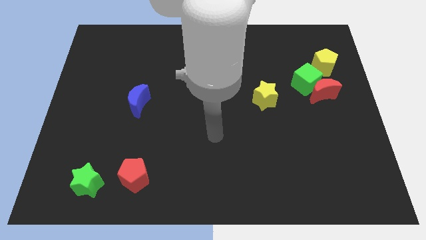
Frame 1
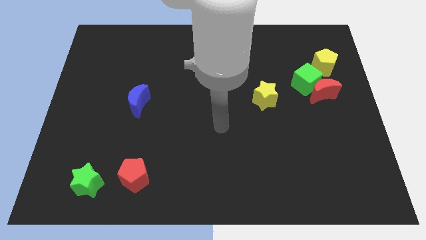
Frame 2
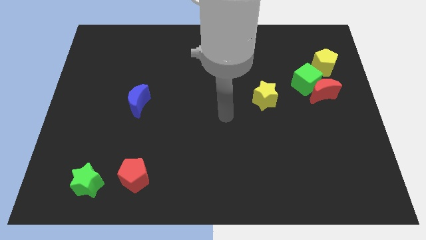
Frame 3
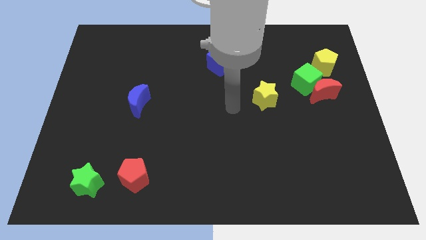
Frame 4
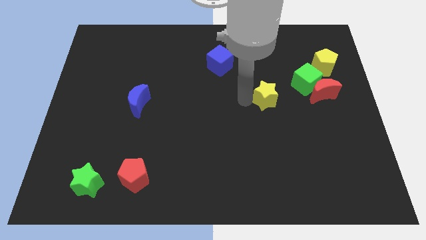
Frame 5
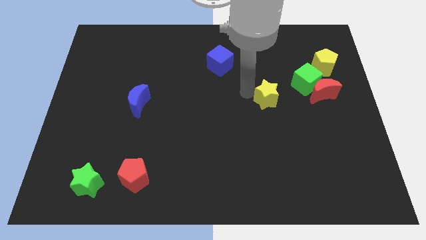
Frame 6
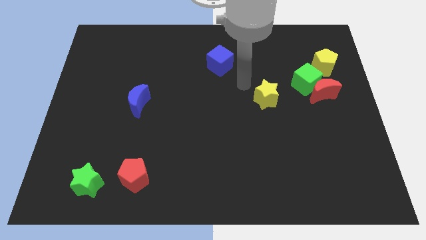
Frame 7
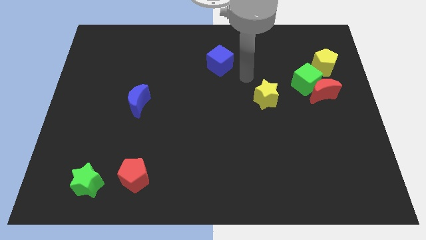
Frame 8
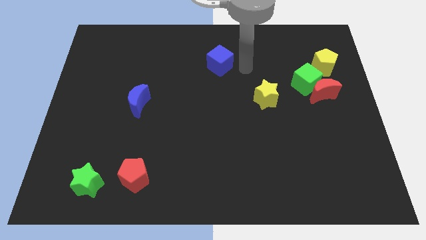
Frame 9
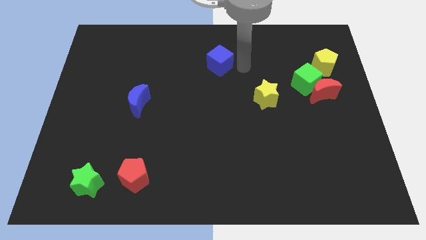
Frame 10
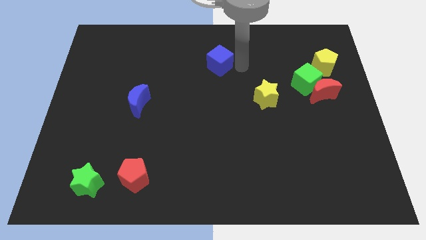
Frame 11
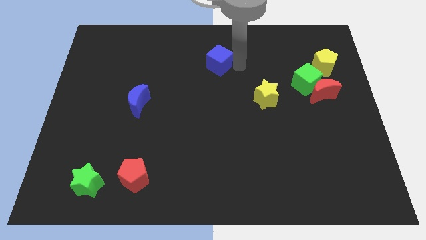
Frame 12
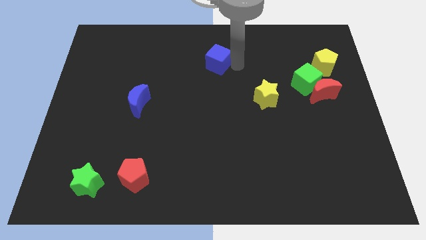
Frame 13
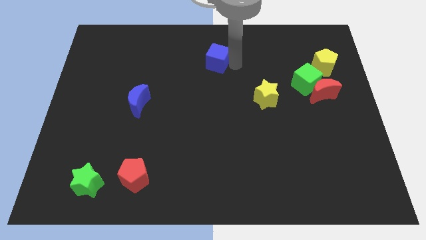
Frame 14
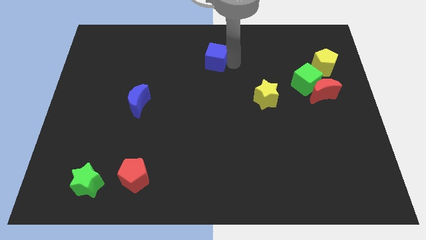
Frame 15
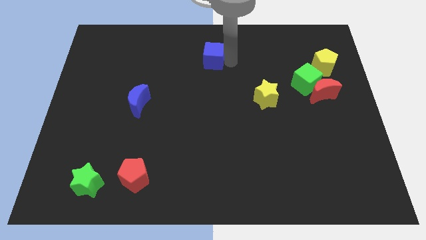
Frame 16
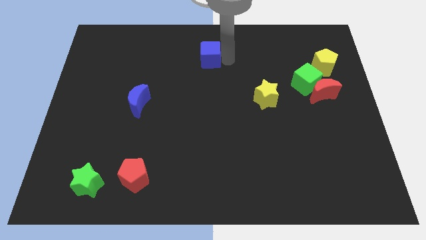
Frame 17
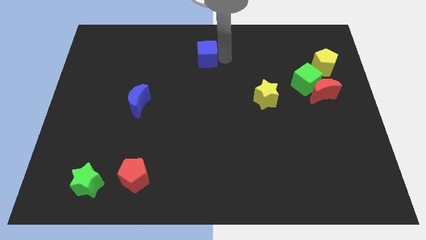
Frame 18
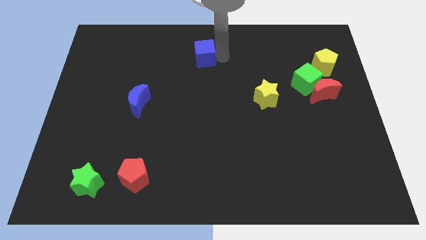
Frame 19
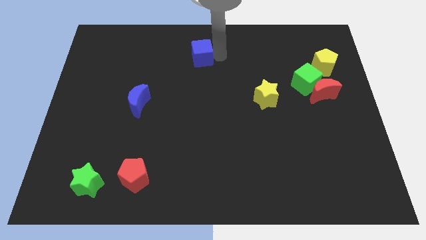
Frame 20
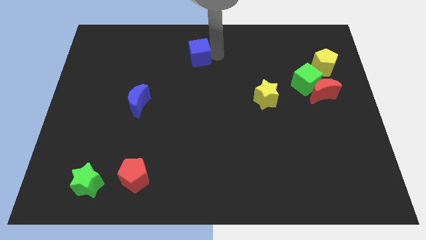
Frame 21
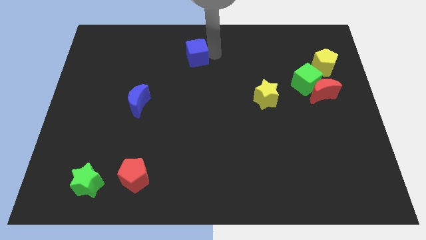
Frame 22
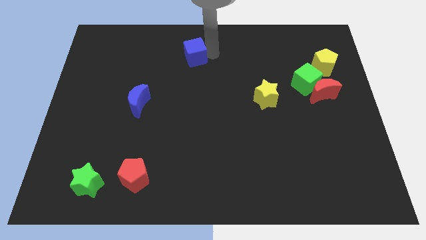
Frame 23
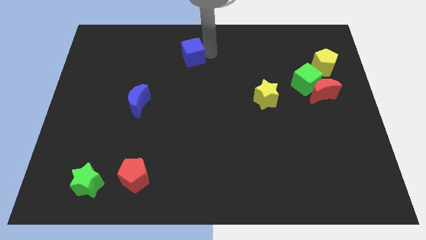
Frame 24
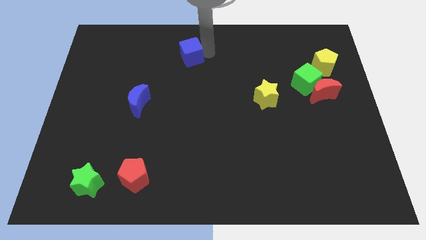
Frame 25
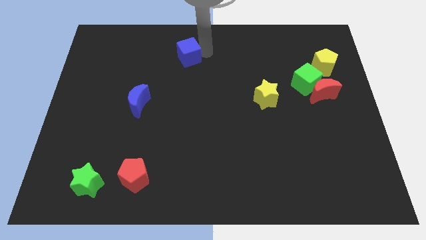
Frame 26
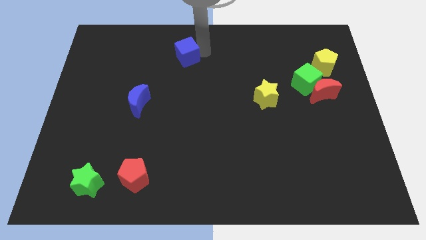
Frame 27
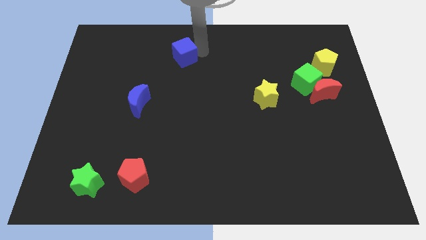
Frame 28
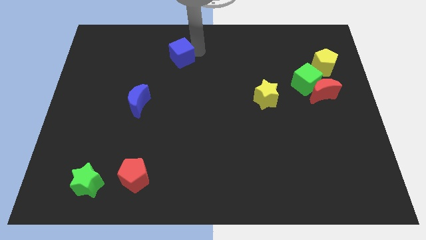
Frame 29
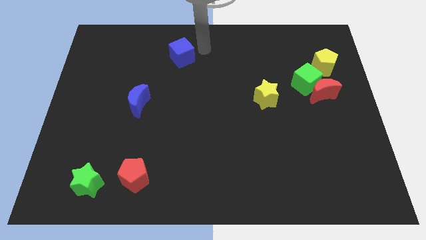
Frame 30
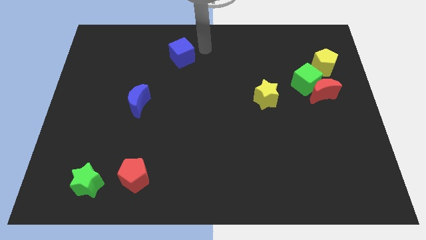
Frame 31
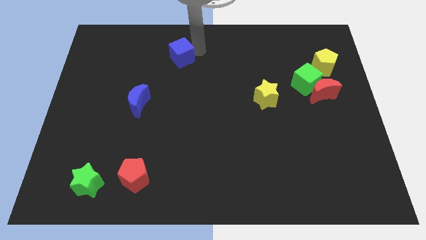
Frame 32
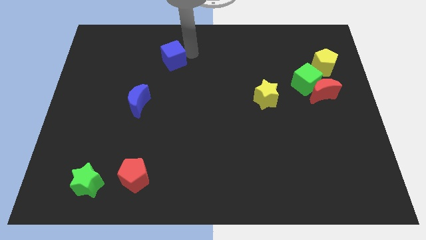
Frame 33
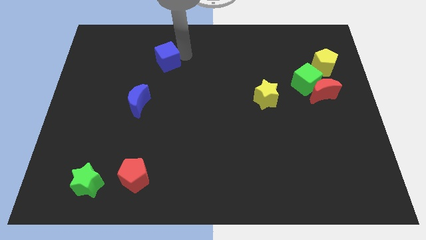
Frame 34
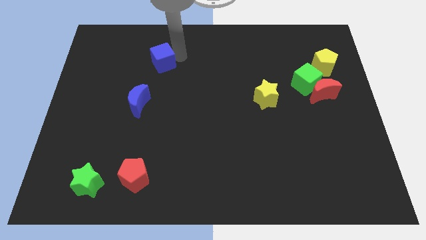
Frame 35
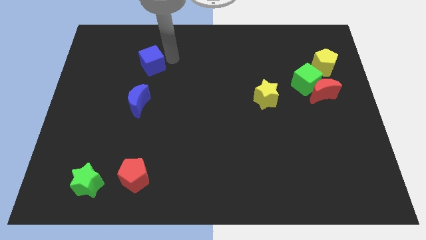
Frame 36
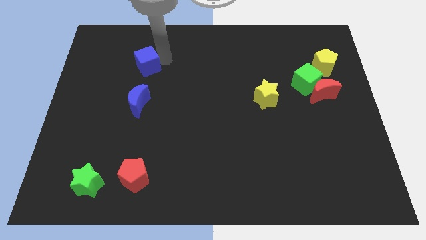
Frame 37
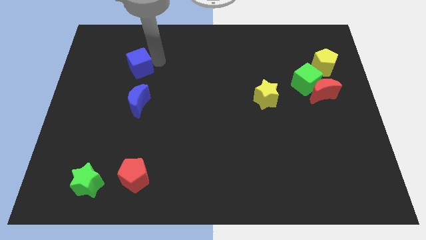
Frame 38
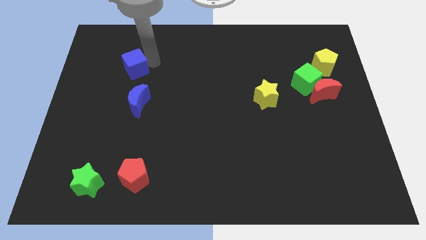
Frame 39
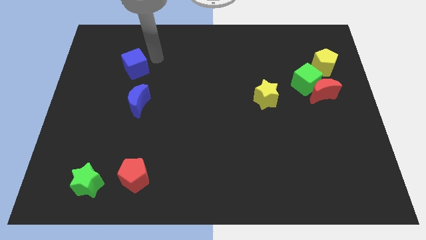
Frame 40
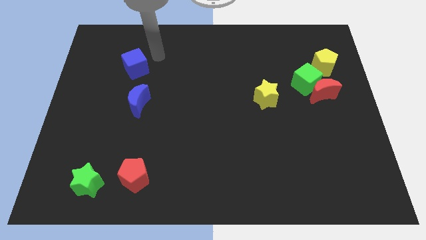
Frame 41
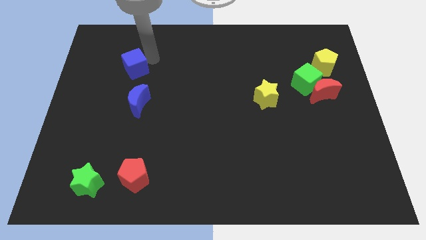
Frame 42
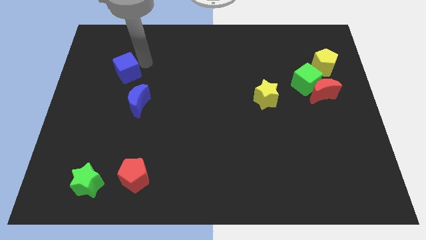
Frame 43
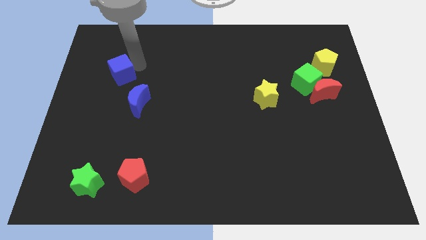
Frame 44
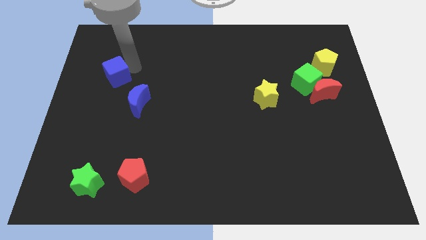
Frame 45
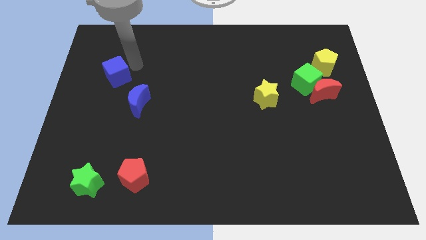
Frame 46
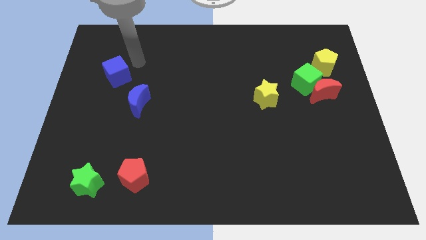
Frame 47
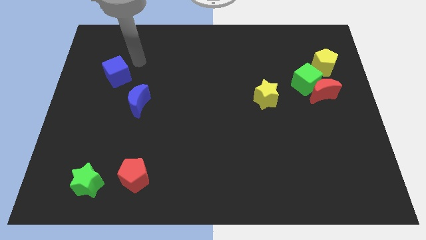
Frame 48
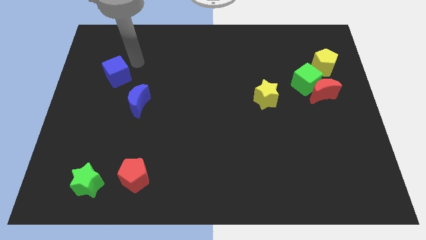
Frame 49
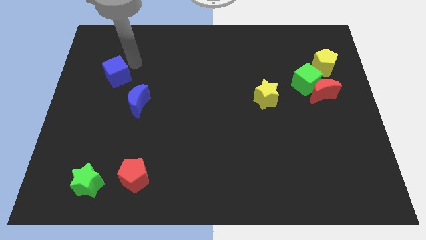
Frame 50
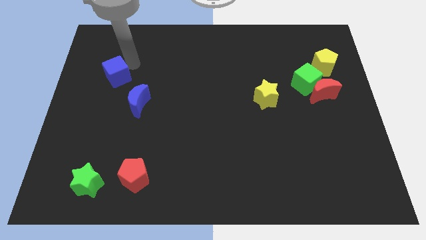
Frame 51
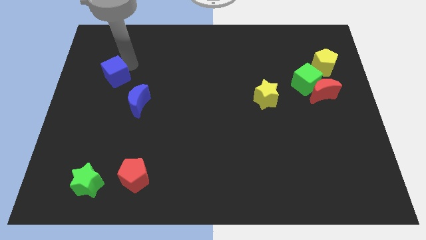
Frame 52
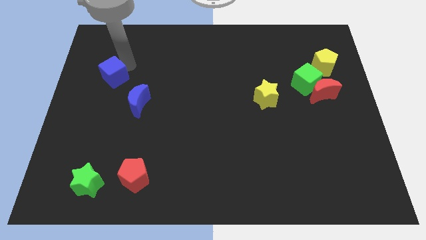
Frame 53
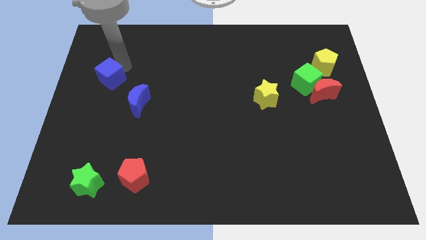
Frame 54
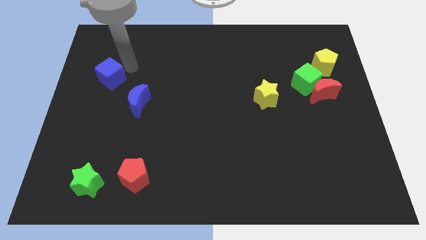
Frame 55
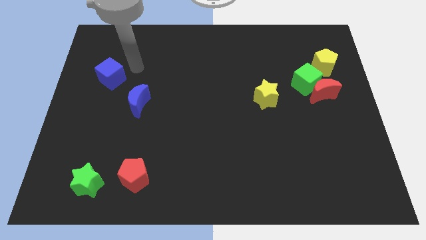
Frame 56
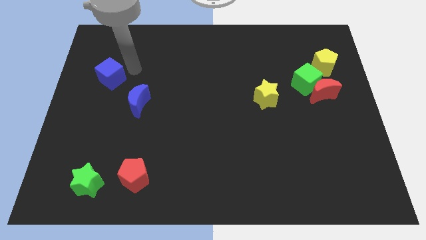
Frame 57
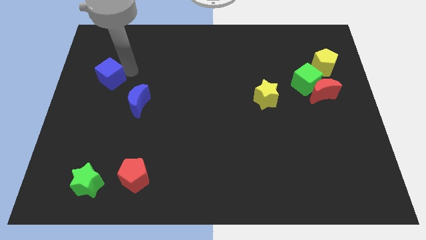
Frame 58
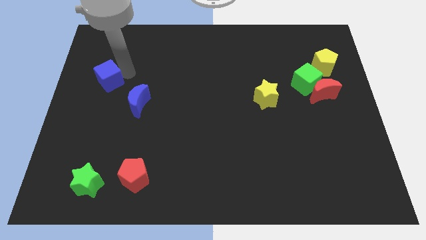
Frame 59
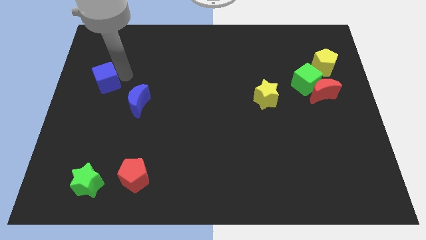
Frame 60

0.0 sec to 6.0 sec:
move the blue cube to the left side of the board
